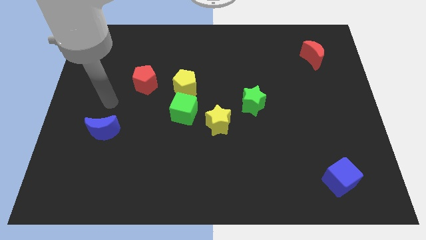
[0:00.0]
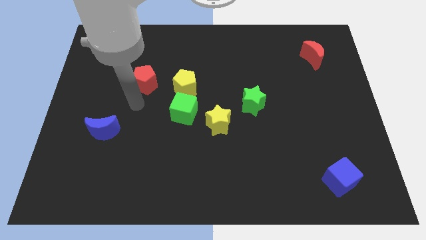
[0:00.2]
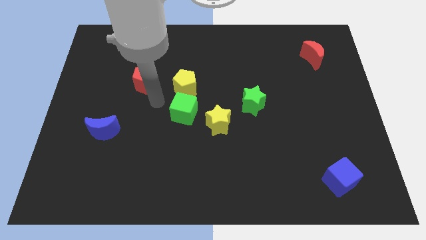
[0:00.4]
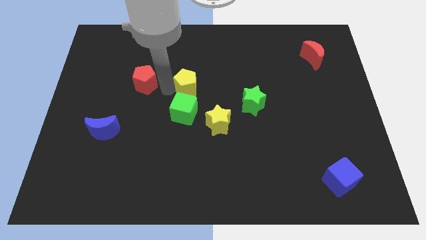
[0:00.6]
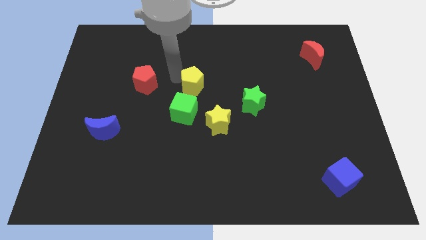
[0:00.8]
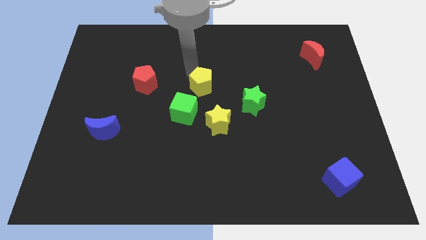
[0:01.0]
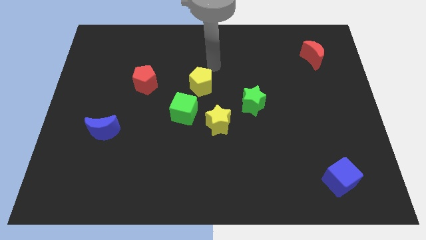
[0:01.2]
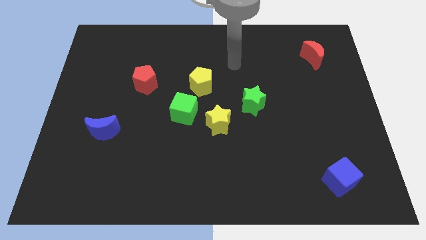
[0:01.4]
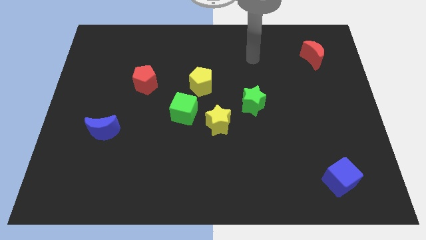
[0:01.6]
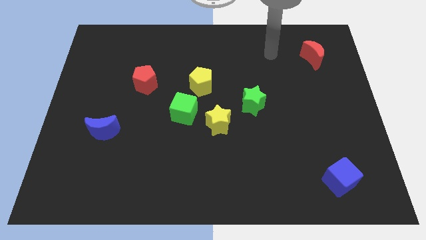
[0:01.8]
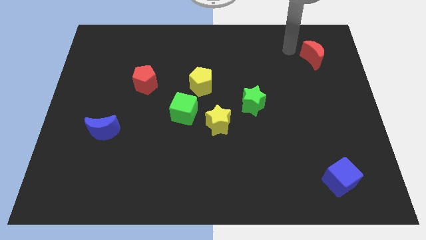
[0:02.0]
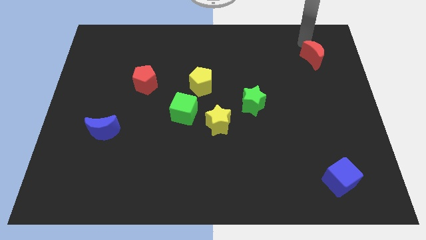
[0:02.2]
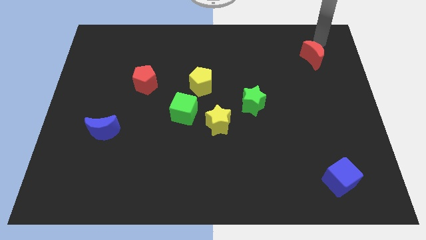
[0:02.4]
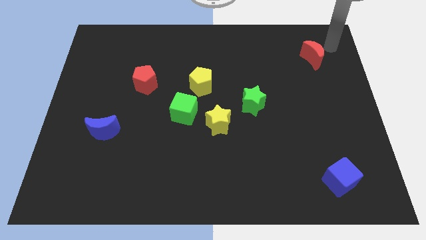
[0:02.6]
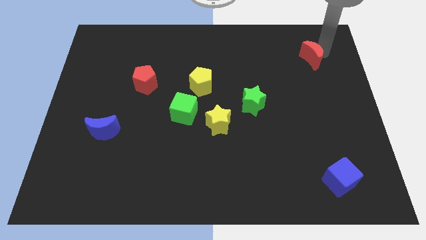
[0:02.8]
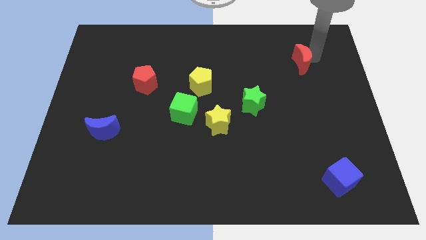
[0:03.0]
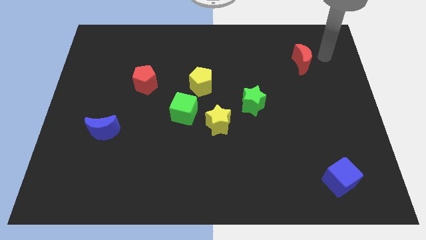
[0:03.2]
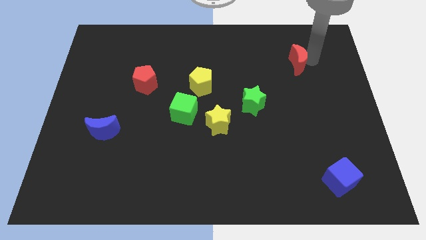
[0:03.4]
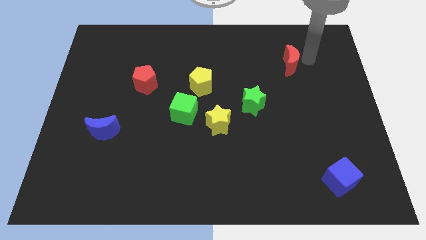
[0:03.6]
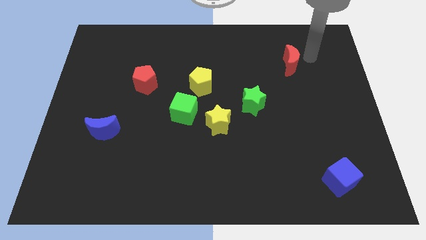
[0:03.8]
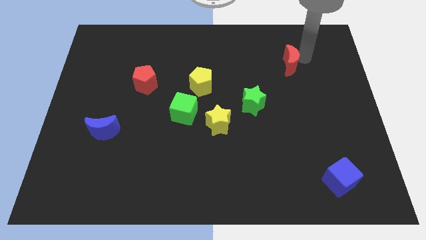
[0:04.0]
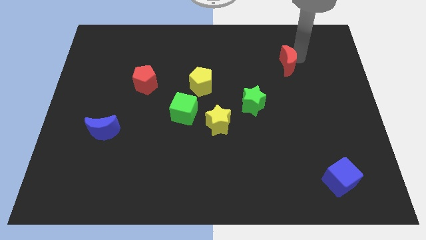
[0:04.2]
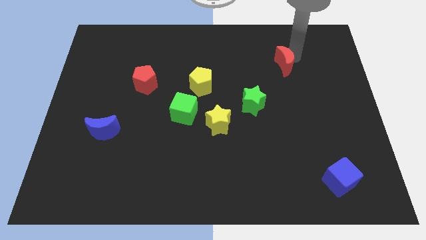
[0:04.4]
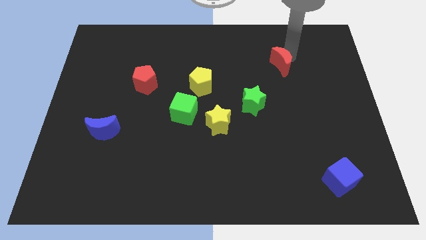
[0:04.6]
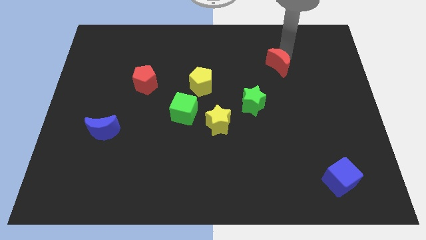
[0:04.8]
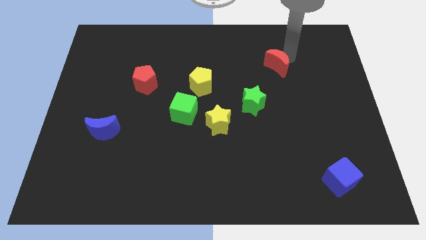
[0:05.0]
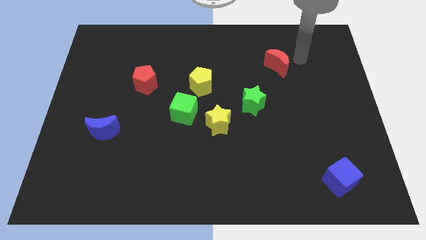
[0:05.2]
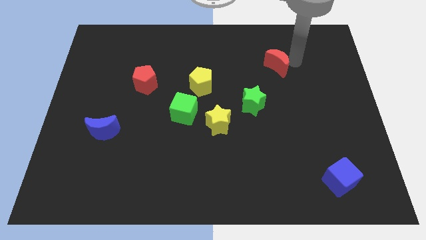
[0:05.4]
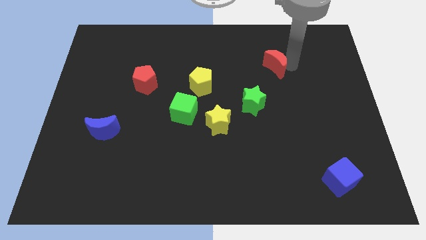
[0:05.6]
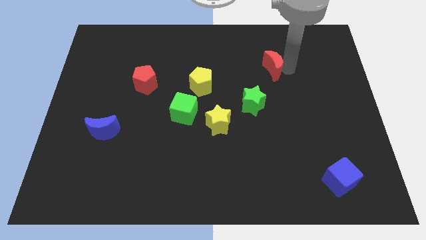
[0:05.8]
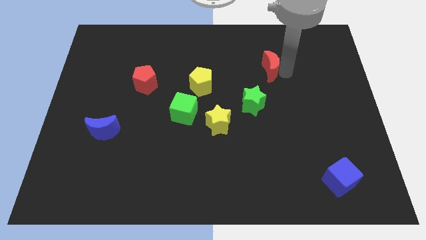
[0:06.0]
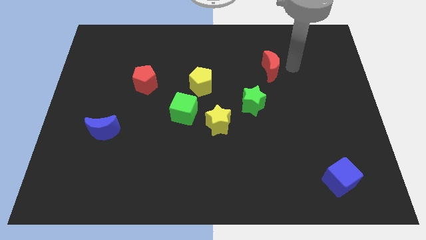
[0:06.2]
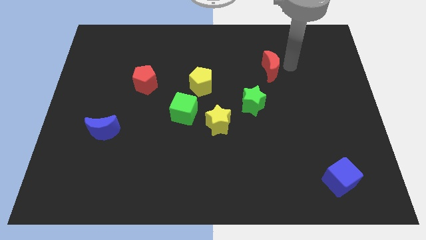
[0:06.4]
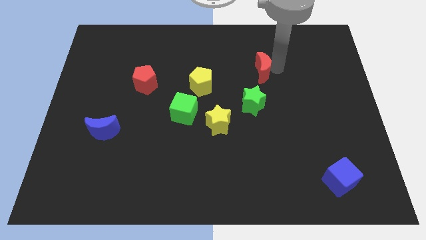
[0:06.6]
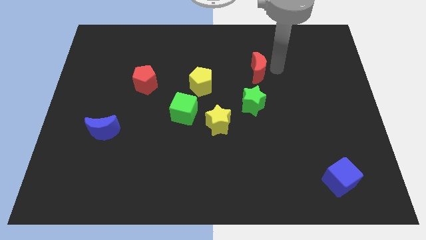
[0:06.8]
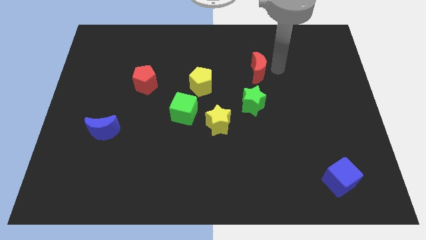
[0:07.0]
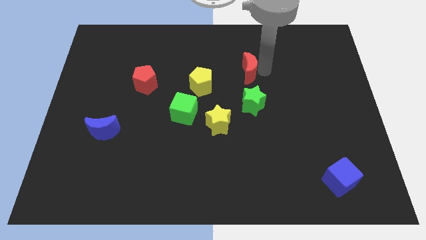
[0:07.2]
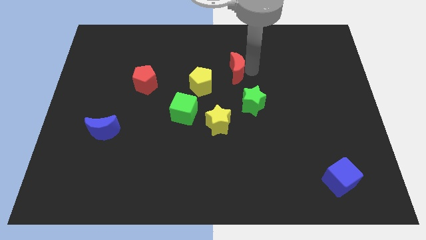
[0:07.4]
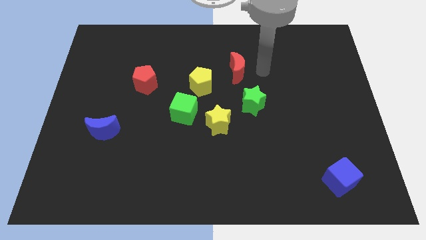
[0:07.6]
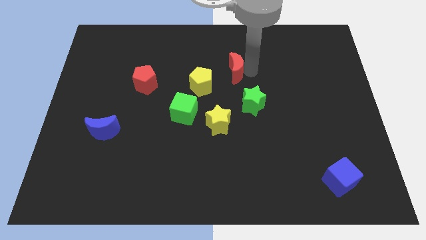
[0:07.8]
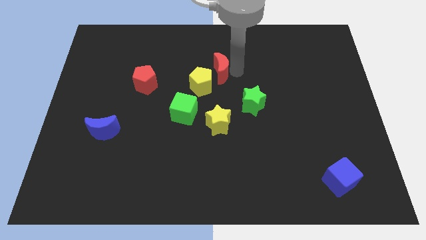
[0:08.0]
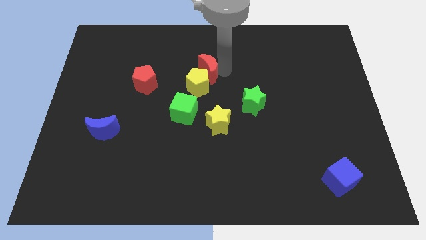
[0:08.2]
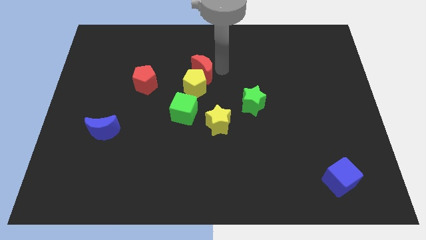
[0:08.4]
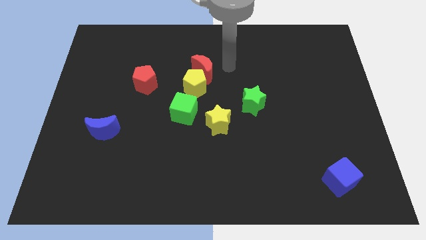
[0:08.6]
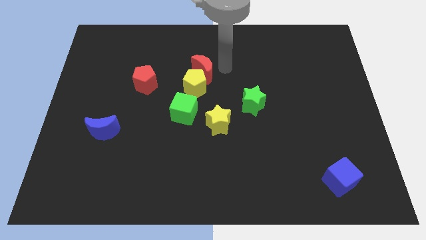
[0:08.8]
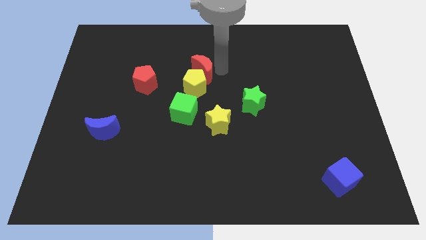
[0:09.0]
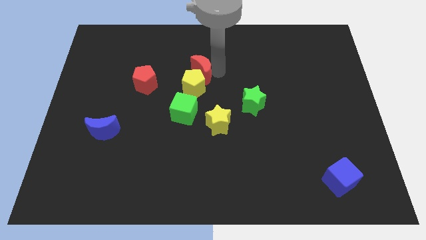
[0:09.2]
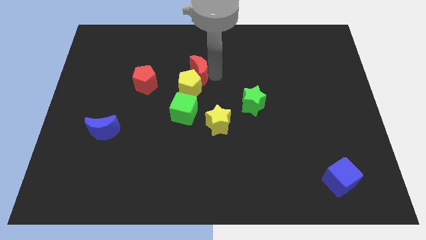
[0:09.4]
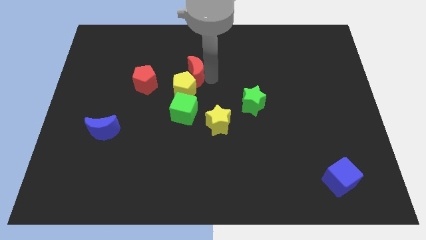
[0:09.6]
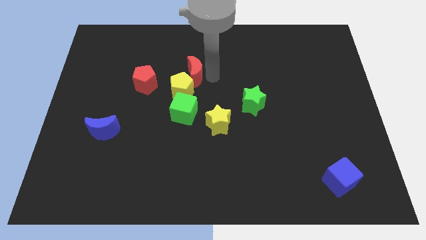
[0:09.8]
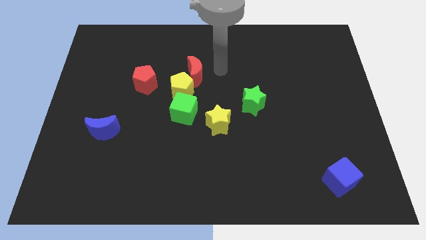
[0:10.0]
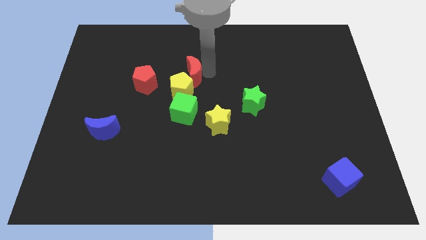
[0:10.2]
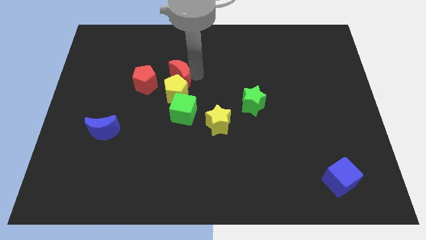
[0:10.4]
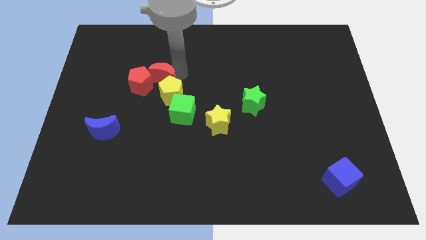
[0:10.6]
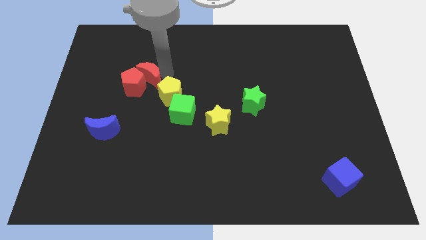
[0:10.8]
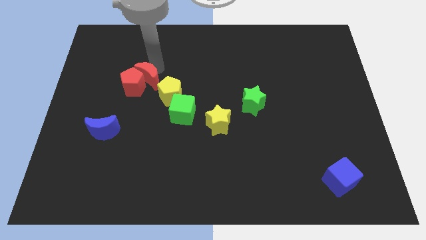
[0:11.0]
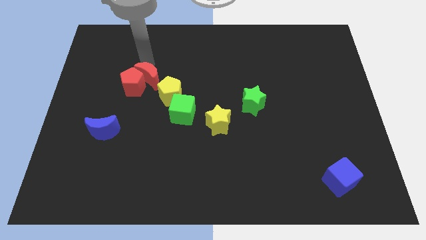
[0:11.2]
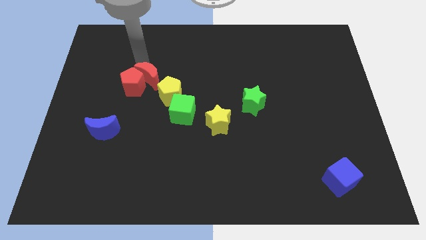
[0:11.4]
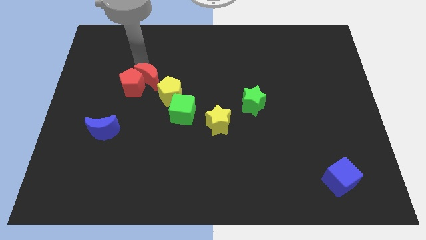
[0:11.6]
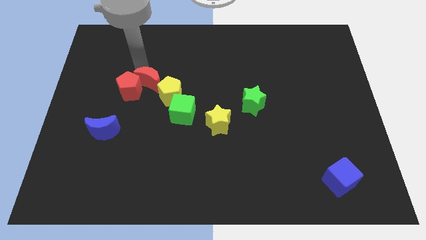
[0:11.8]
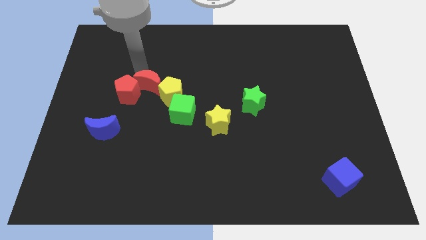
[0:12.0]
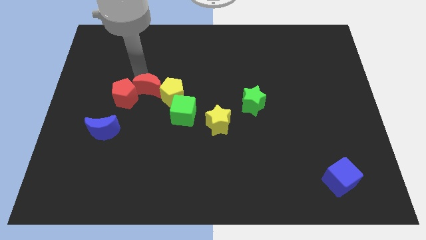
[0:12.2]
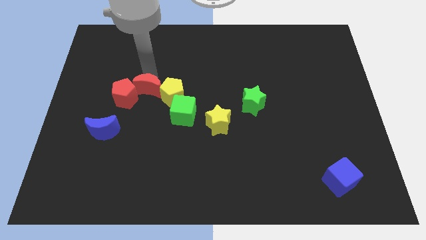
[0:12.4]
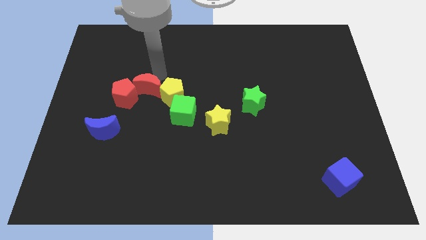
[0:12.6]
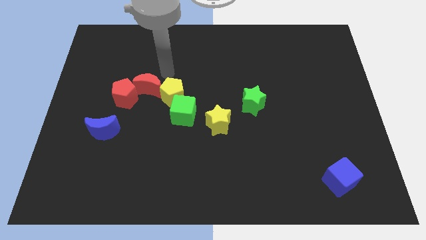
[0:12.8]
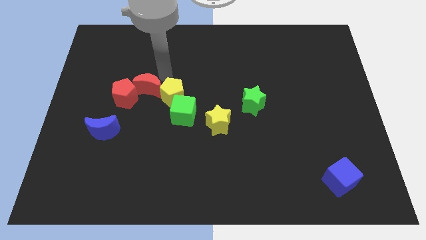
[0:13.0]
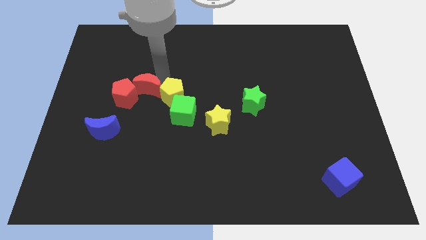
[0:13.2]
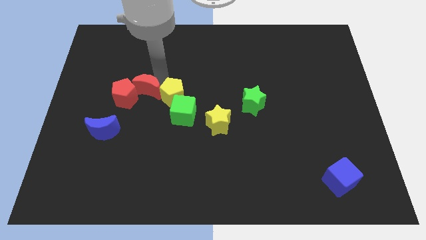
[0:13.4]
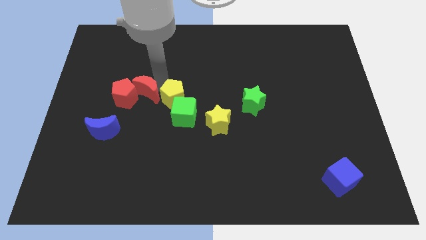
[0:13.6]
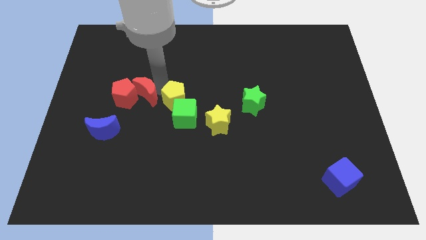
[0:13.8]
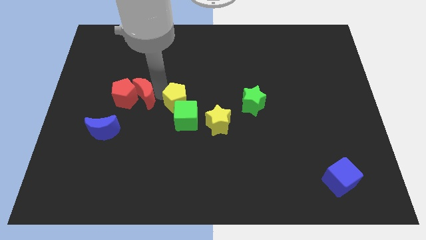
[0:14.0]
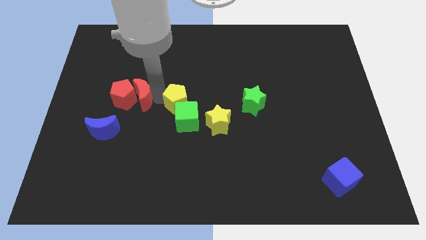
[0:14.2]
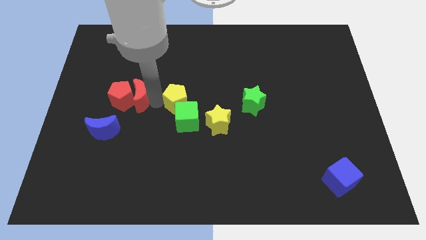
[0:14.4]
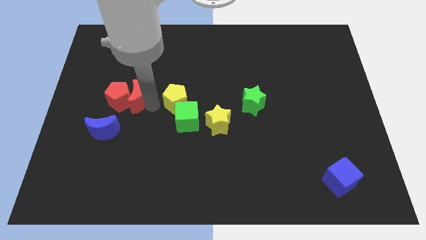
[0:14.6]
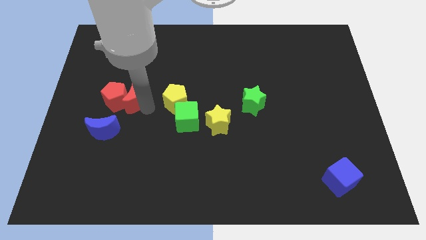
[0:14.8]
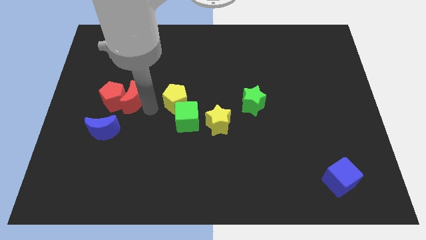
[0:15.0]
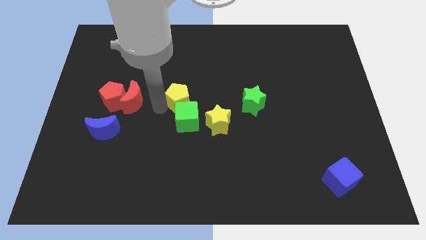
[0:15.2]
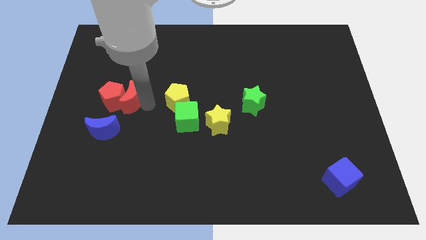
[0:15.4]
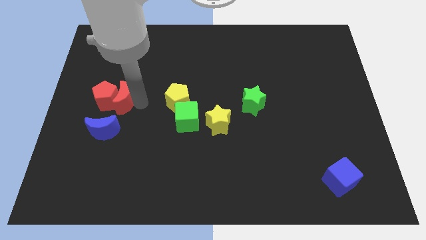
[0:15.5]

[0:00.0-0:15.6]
slide the red moon above the blue moon
